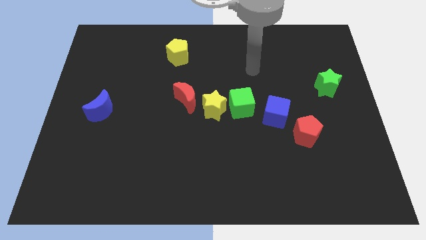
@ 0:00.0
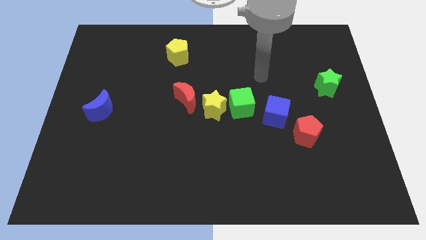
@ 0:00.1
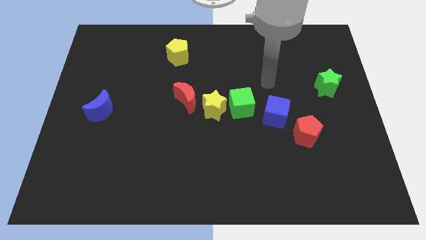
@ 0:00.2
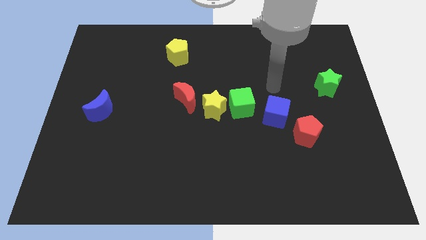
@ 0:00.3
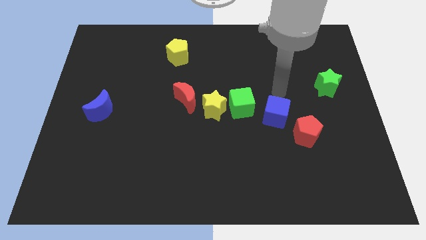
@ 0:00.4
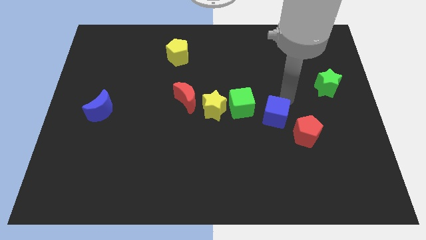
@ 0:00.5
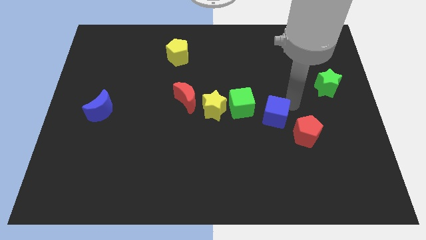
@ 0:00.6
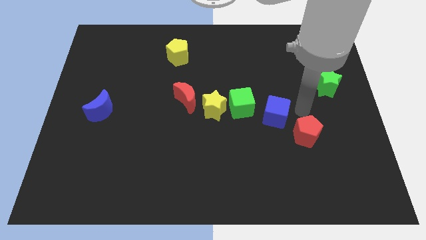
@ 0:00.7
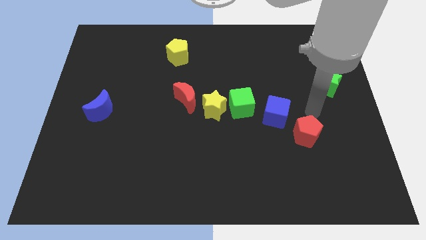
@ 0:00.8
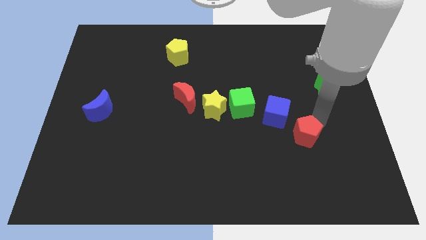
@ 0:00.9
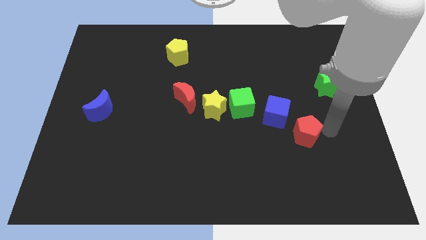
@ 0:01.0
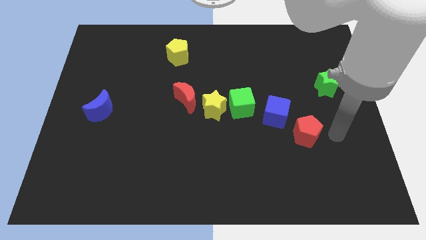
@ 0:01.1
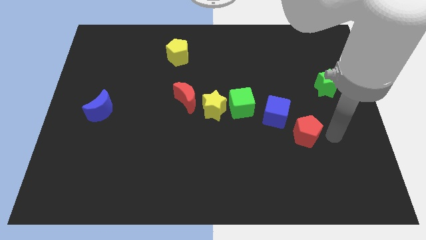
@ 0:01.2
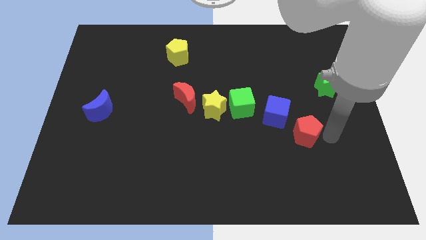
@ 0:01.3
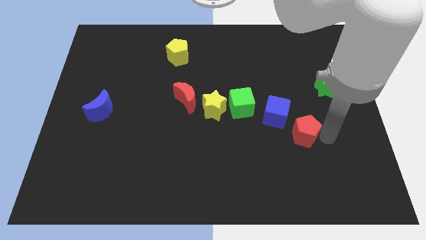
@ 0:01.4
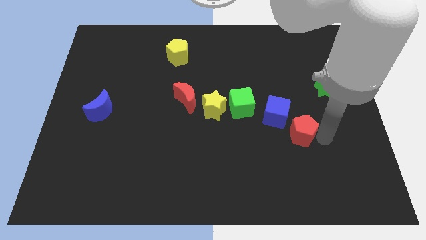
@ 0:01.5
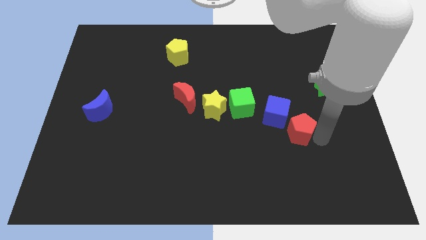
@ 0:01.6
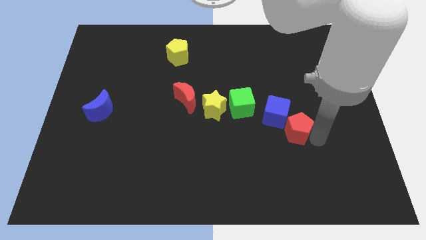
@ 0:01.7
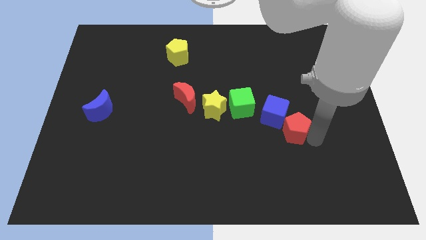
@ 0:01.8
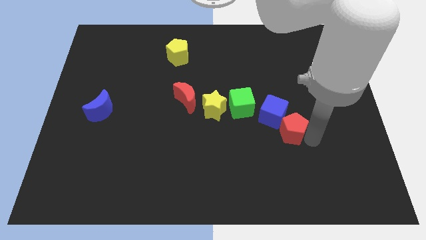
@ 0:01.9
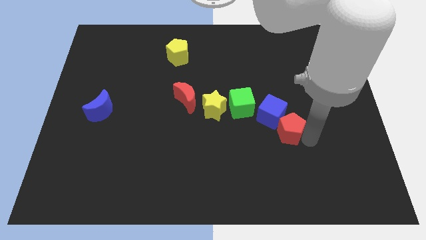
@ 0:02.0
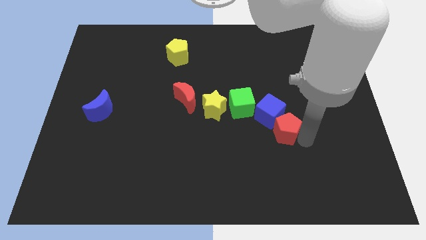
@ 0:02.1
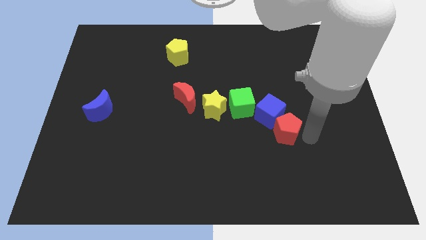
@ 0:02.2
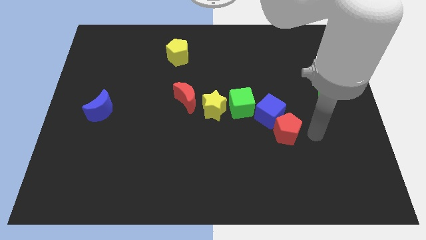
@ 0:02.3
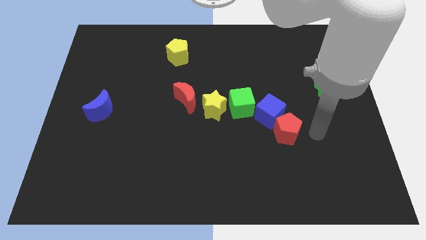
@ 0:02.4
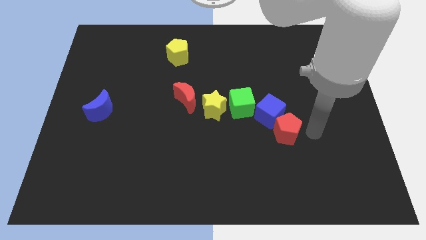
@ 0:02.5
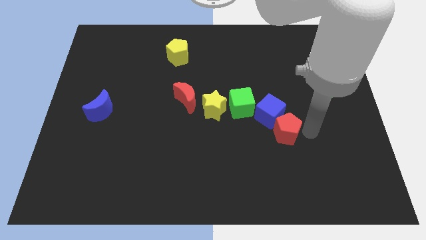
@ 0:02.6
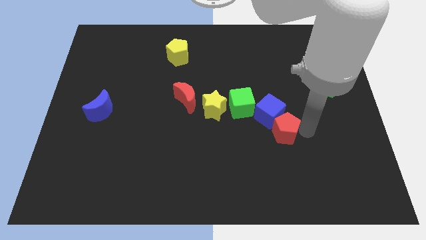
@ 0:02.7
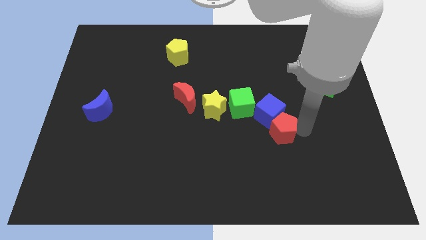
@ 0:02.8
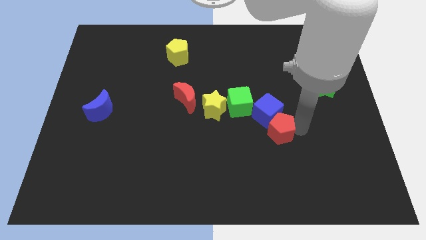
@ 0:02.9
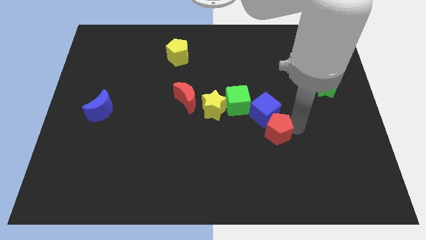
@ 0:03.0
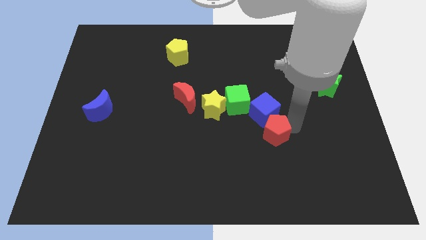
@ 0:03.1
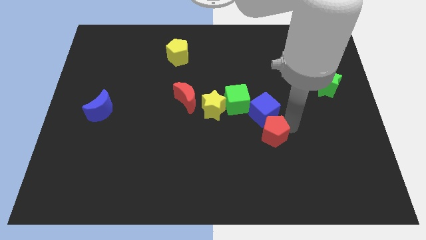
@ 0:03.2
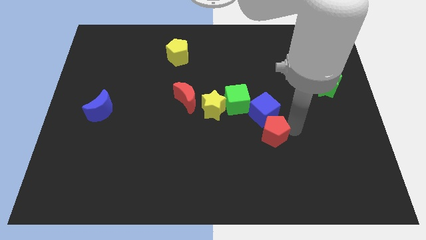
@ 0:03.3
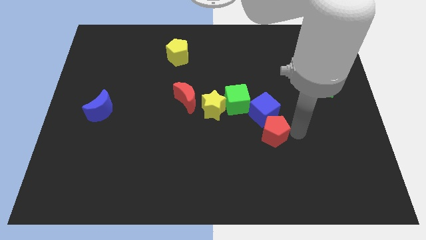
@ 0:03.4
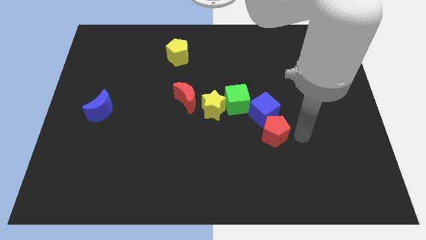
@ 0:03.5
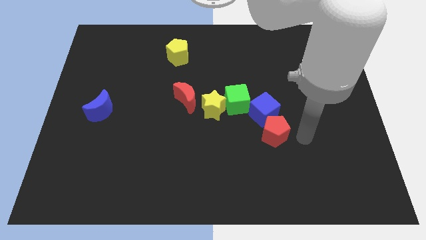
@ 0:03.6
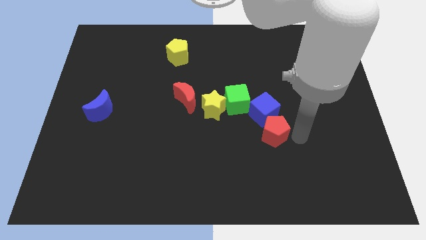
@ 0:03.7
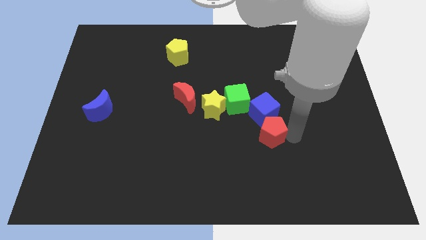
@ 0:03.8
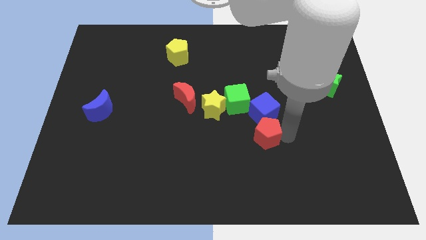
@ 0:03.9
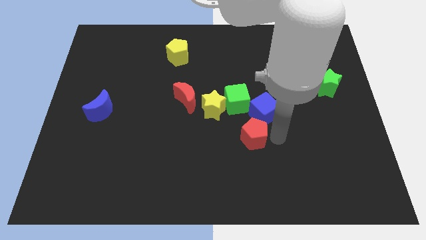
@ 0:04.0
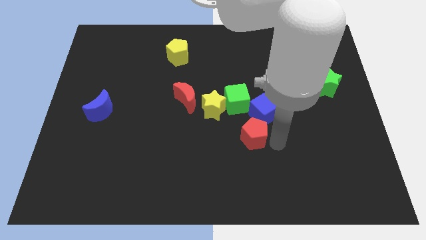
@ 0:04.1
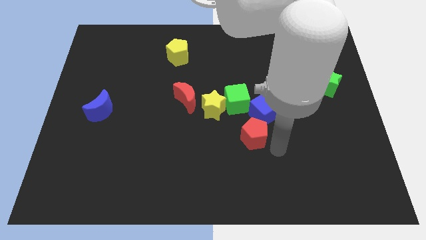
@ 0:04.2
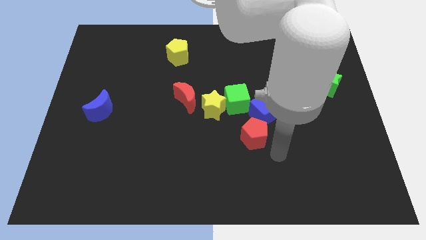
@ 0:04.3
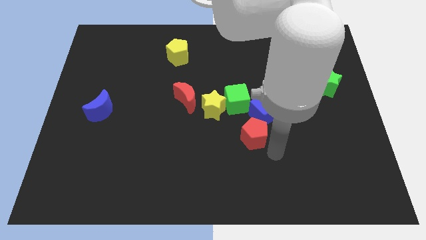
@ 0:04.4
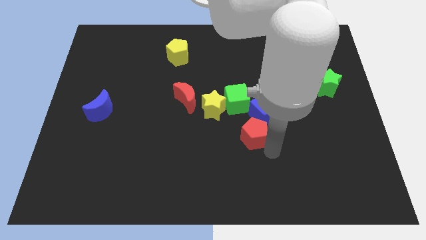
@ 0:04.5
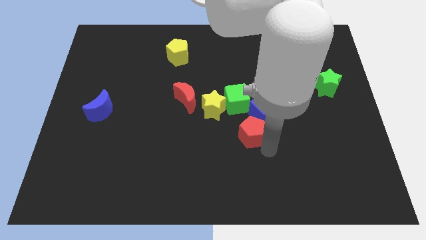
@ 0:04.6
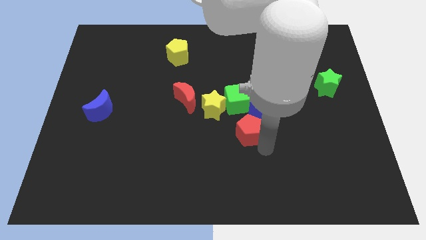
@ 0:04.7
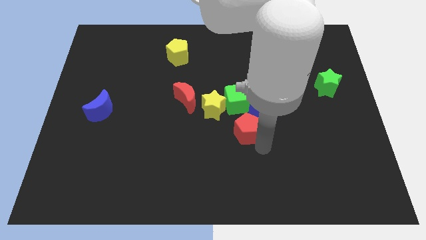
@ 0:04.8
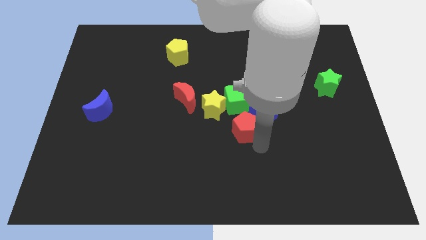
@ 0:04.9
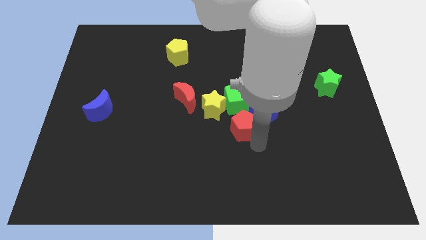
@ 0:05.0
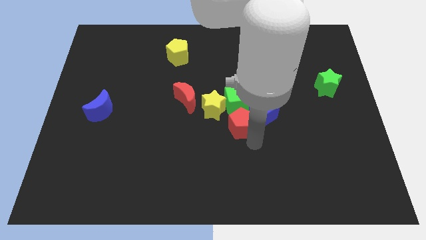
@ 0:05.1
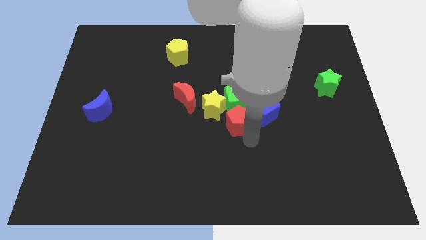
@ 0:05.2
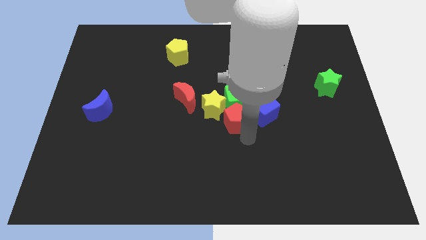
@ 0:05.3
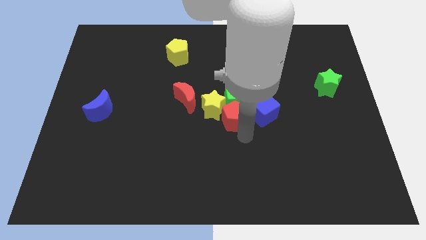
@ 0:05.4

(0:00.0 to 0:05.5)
push the red pentagon towards the yellow star
